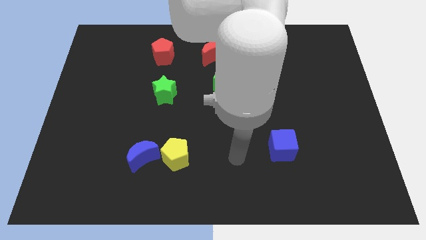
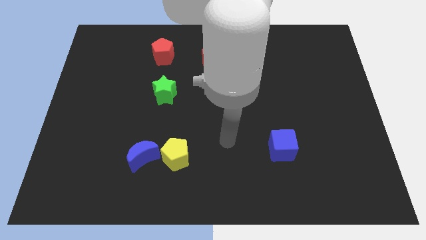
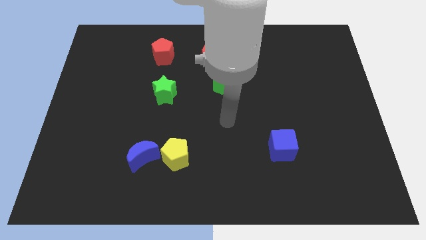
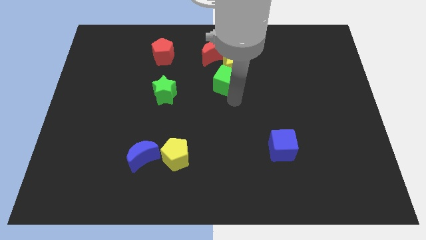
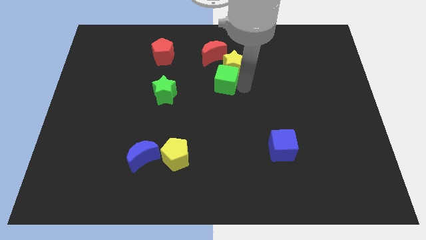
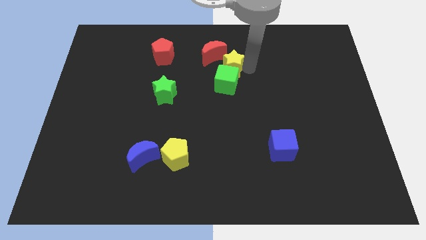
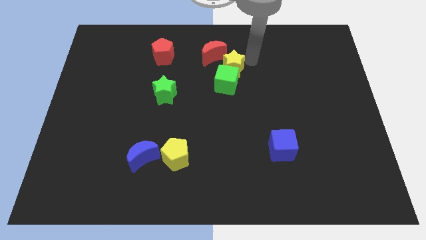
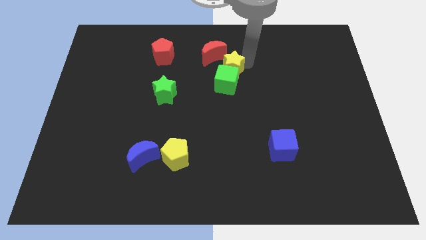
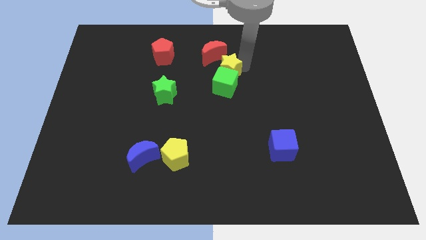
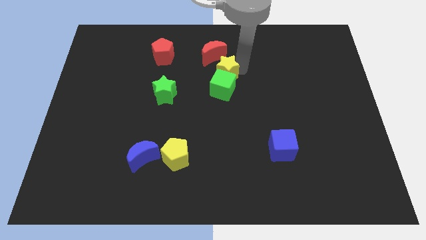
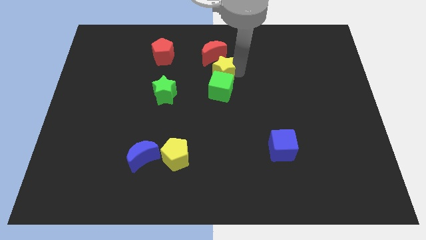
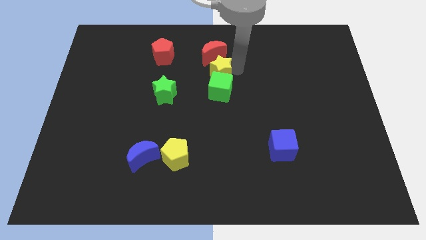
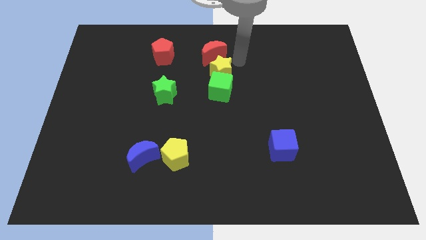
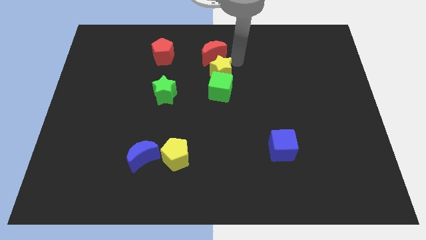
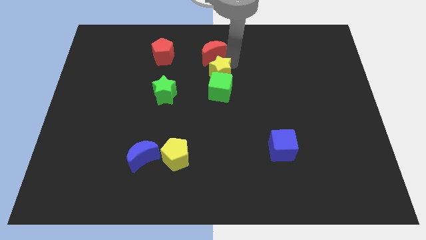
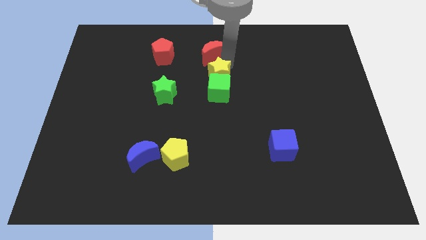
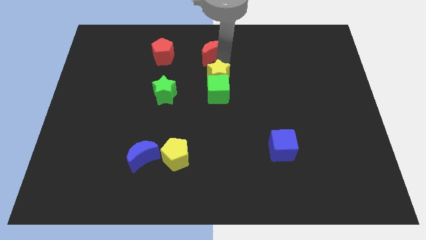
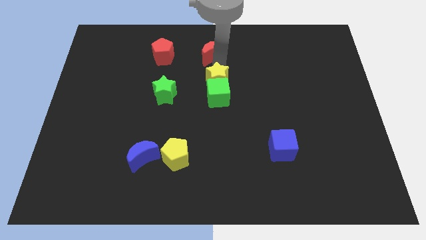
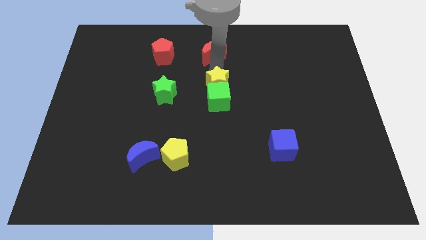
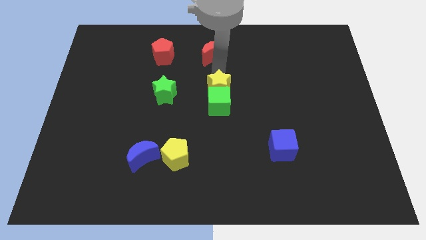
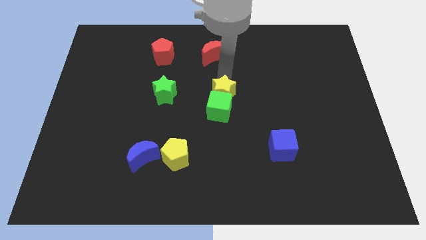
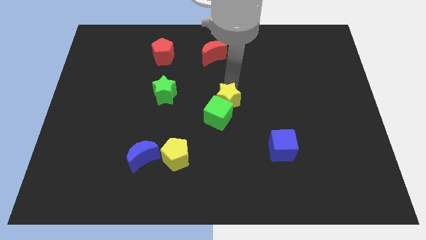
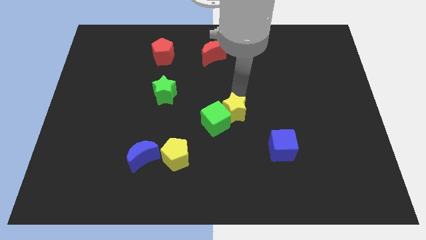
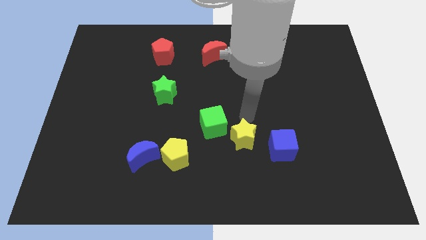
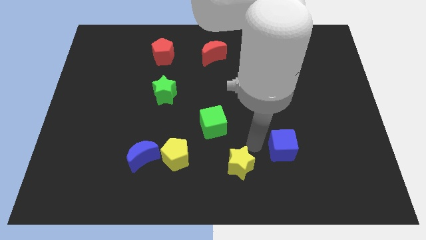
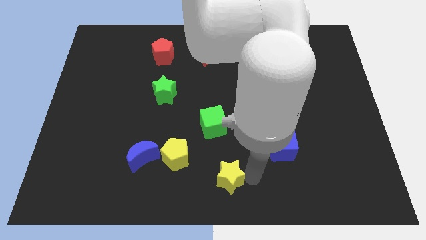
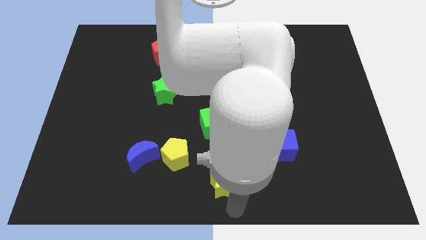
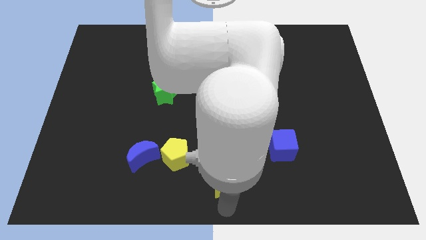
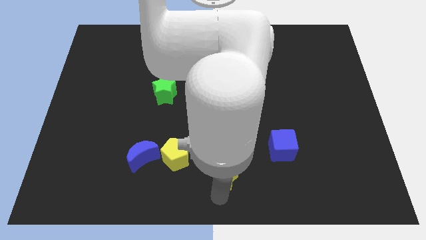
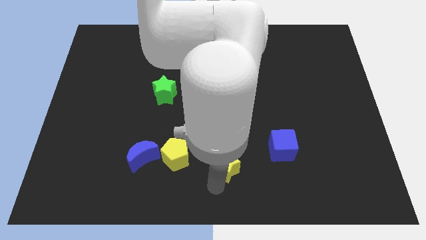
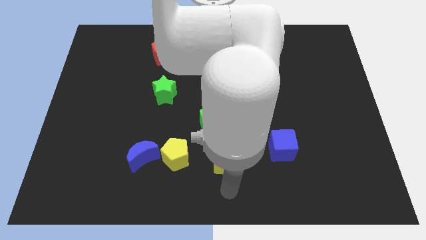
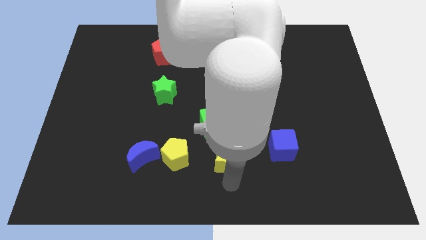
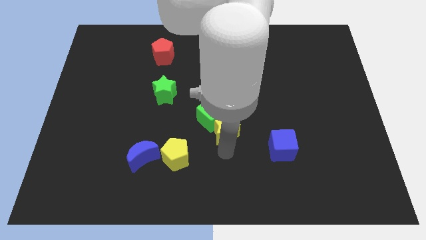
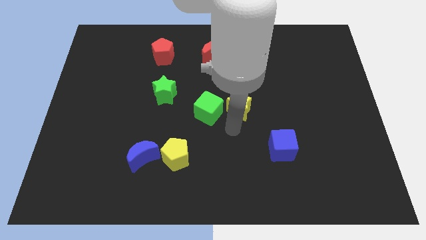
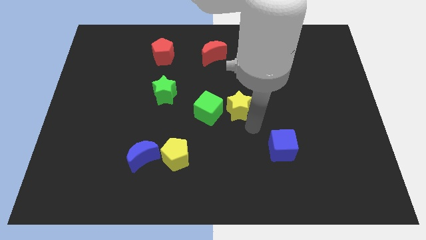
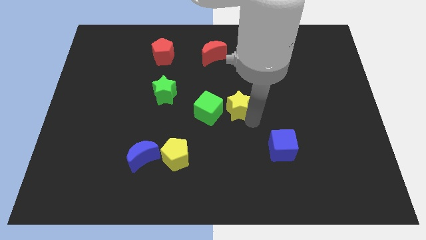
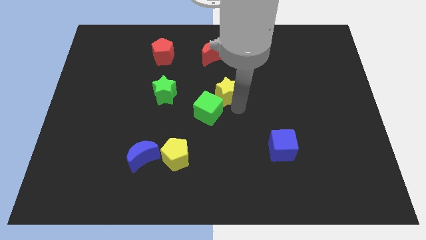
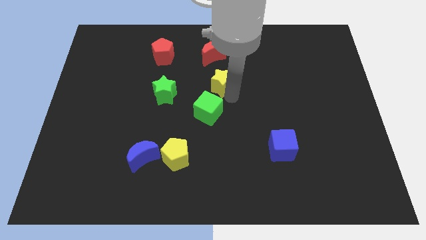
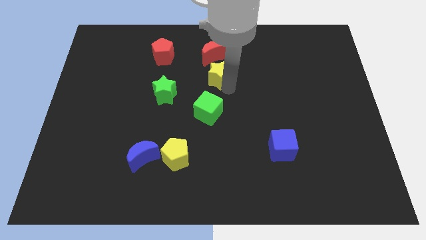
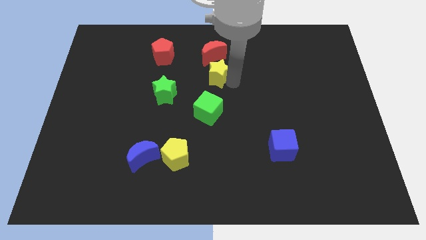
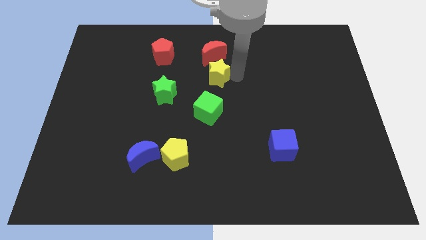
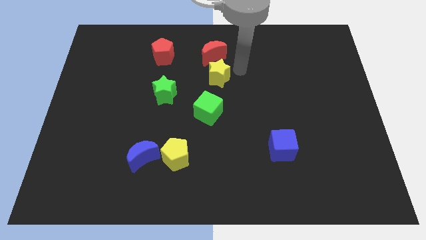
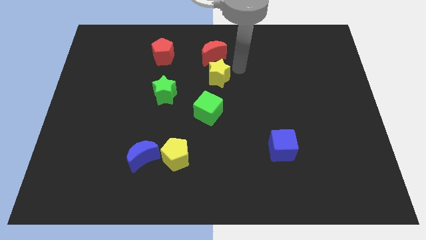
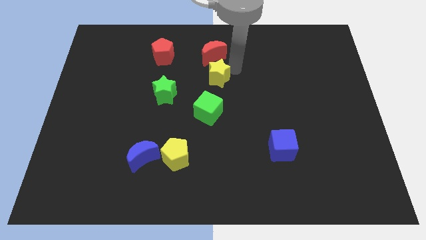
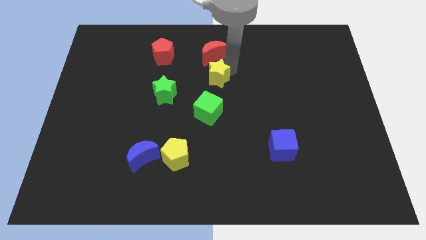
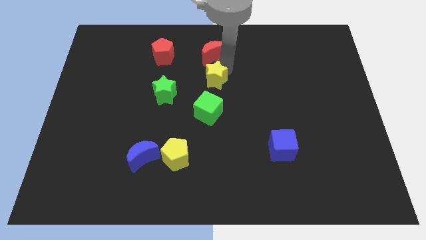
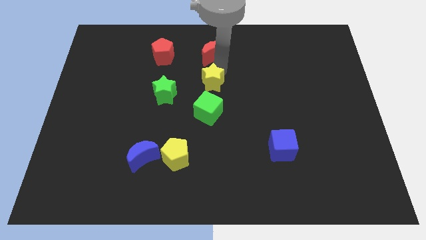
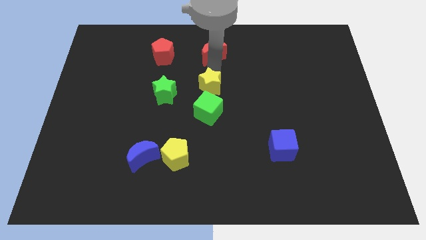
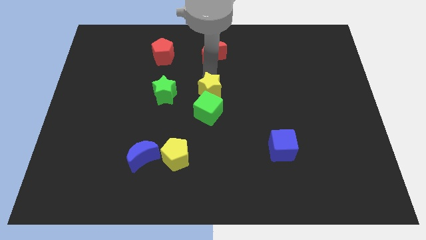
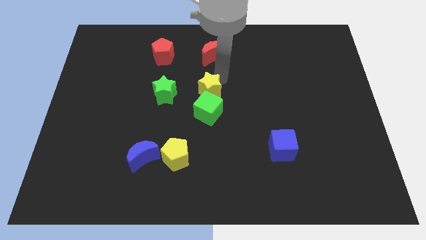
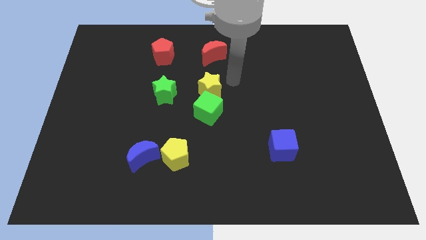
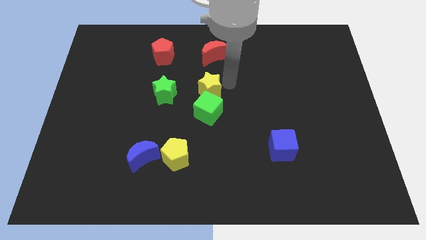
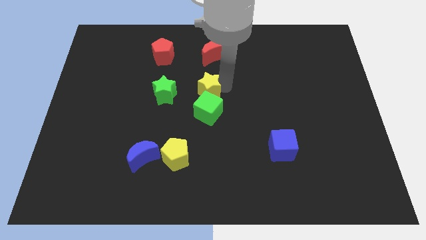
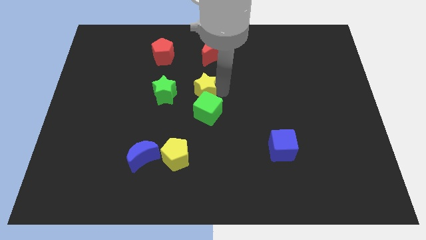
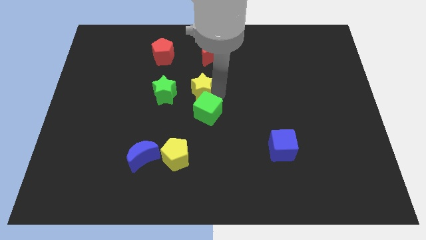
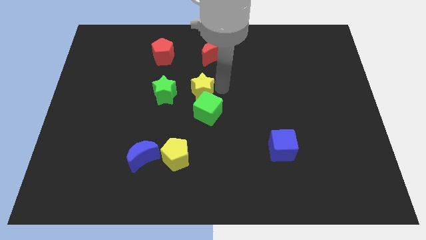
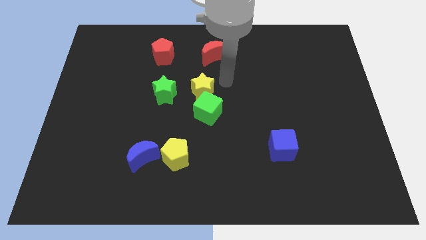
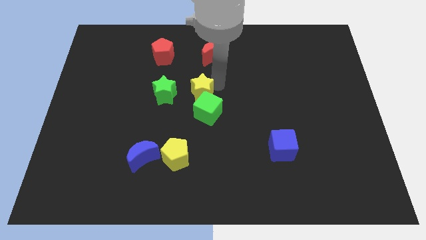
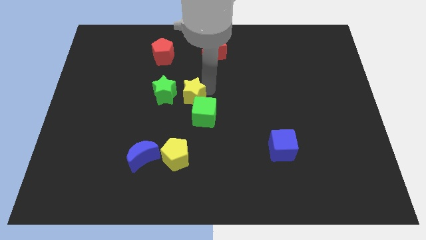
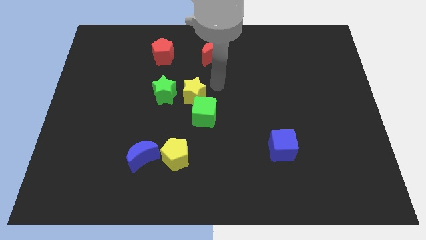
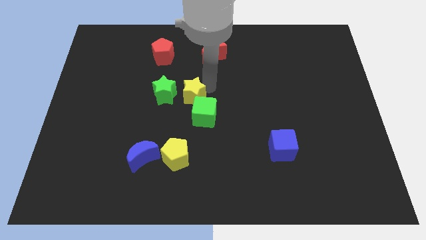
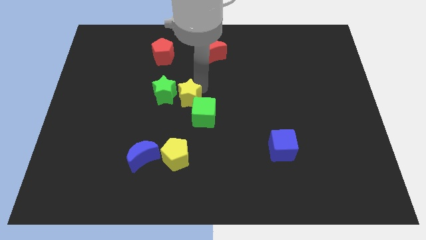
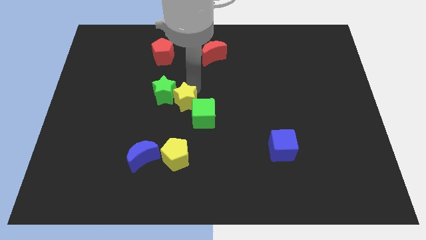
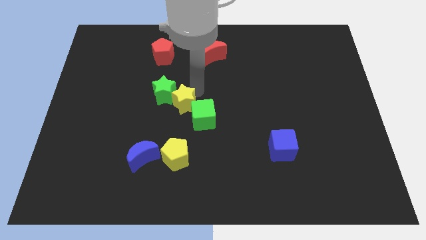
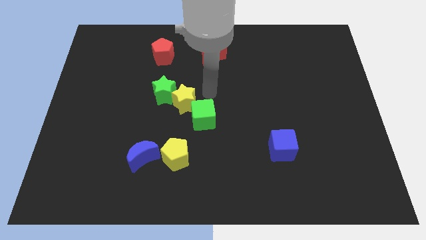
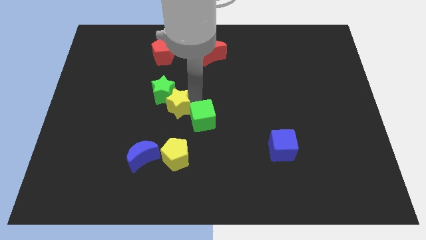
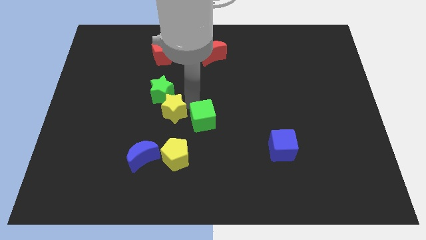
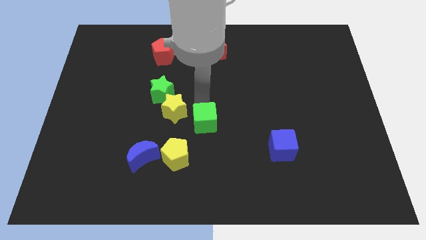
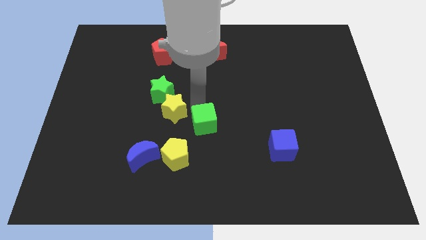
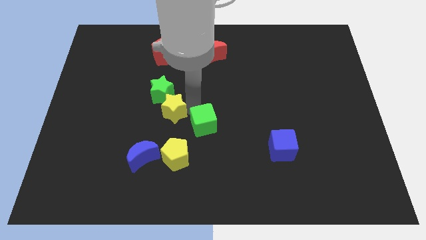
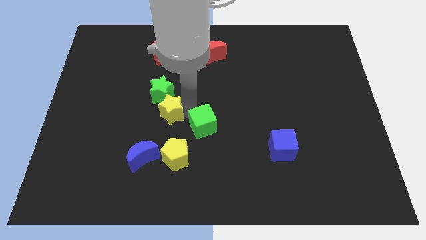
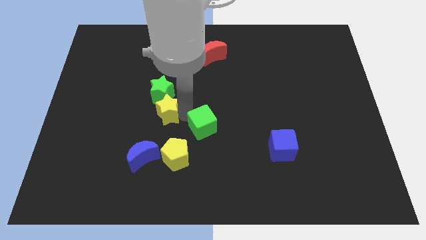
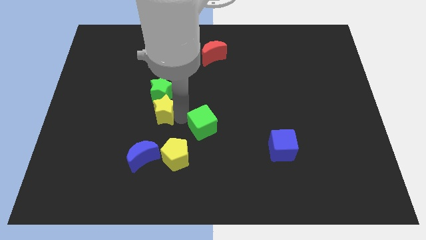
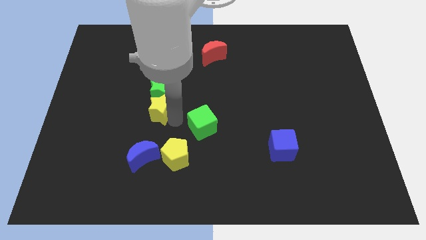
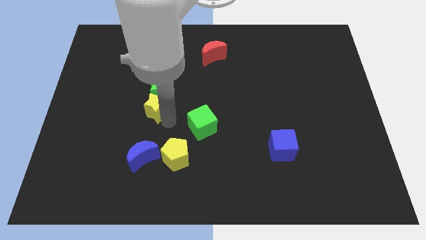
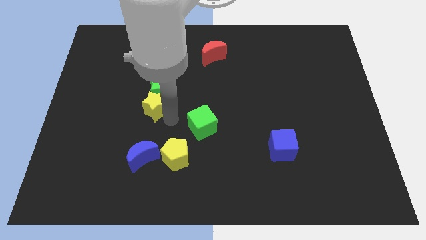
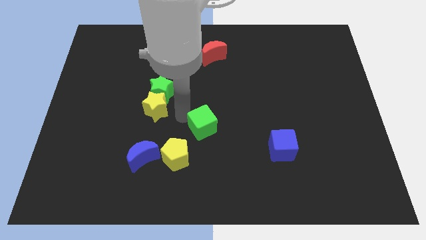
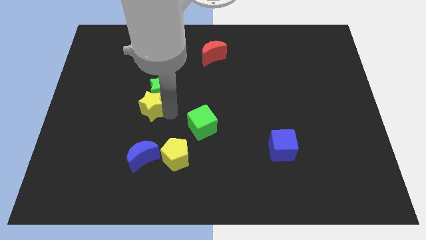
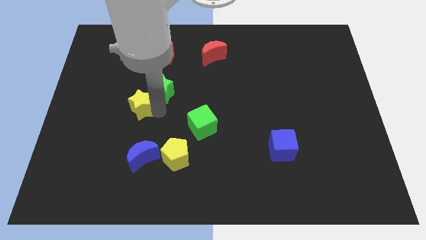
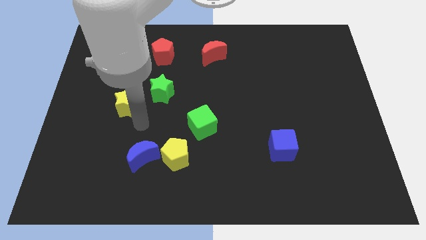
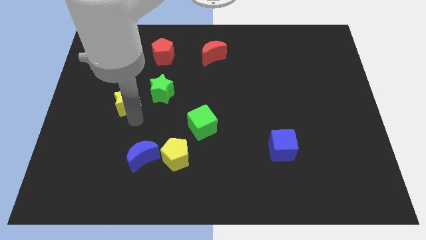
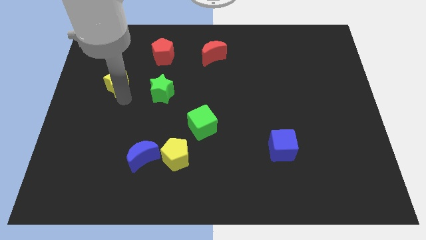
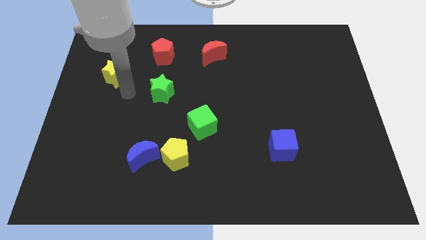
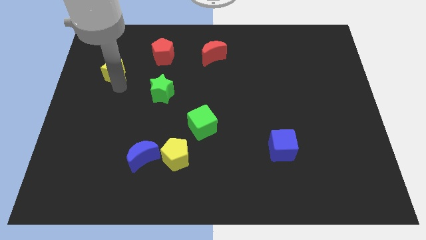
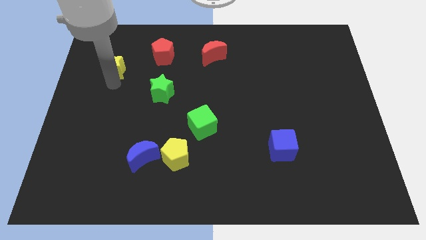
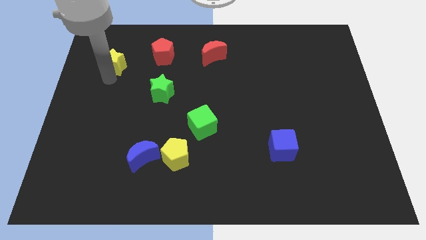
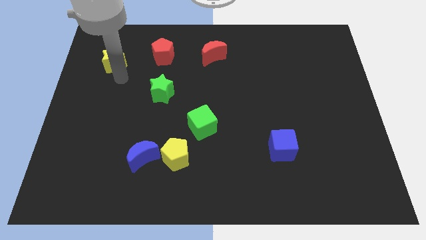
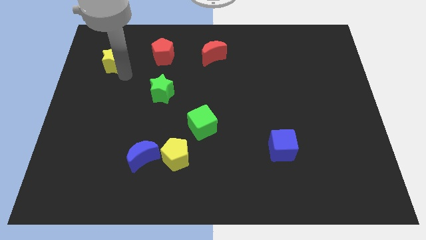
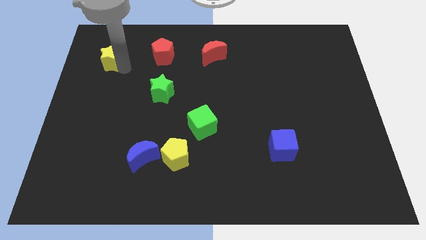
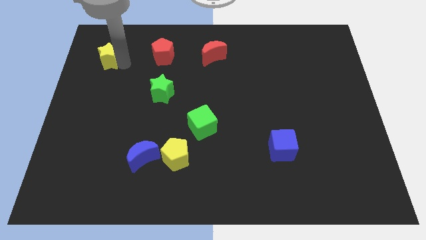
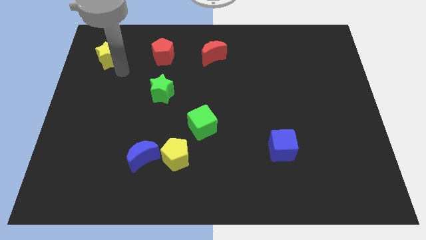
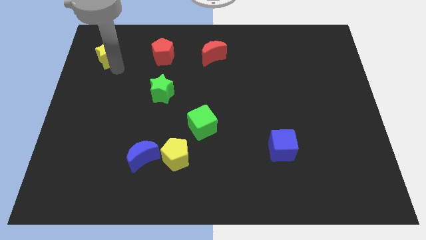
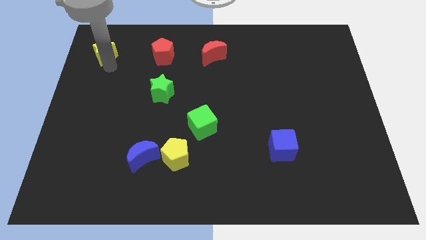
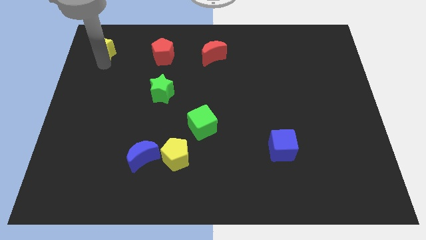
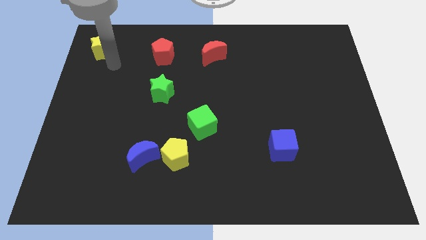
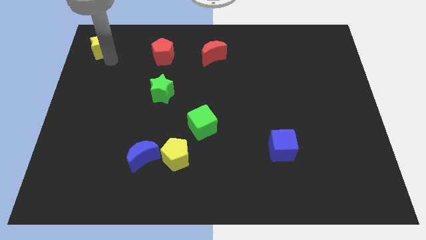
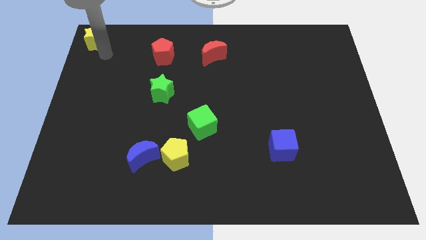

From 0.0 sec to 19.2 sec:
push the yellow star to the top left corner
